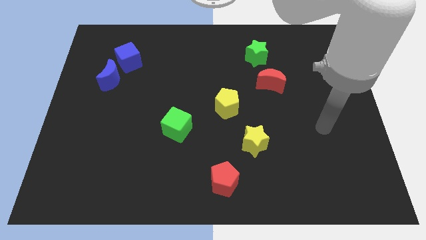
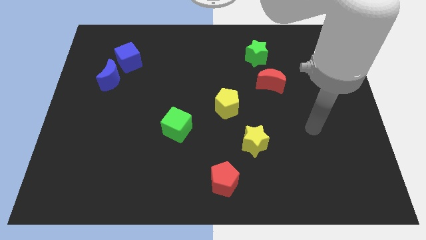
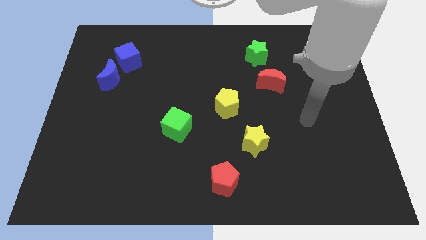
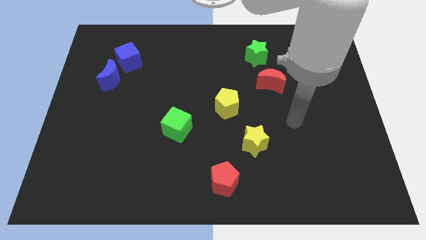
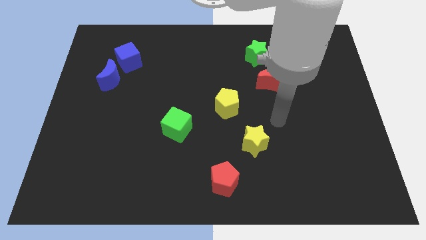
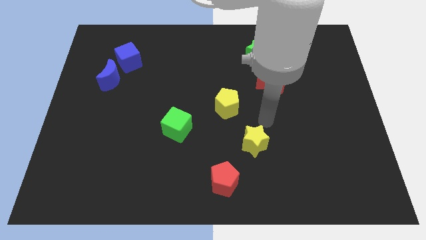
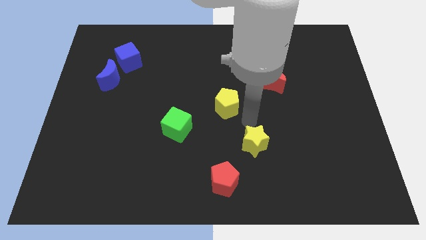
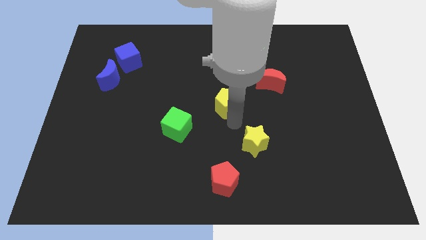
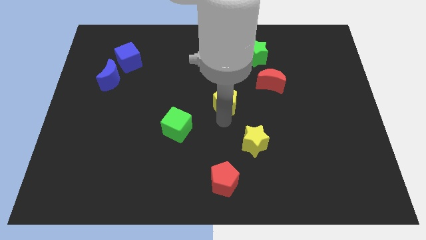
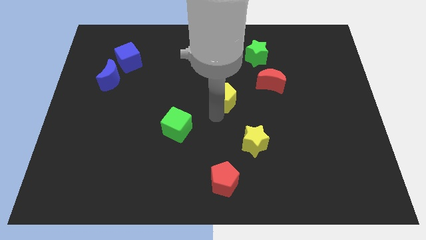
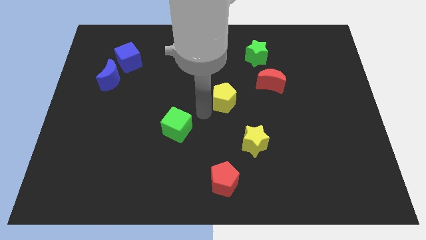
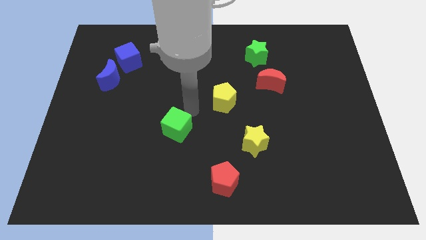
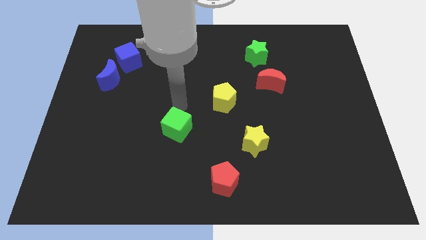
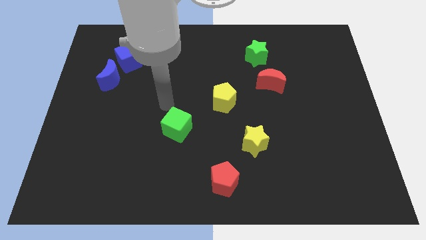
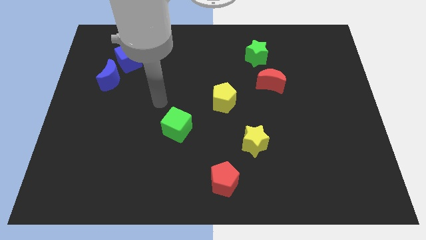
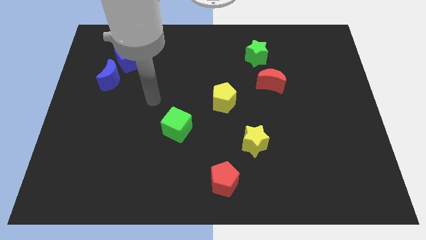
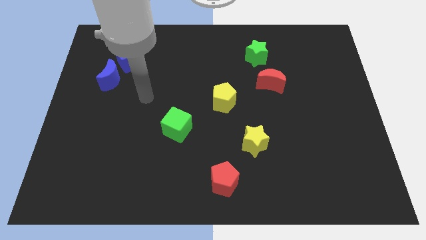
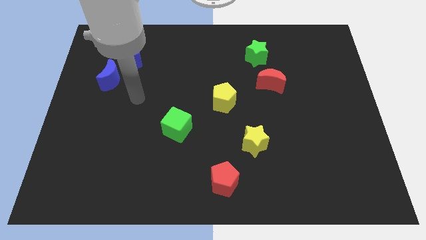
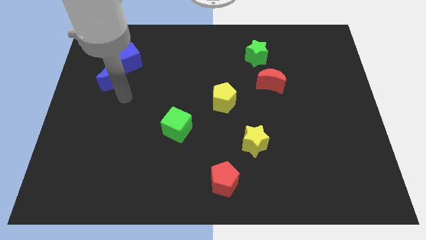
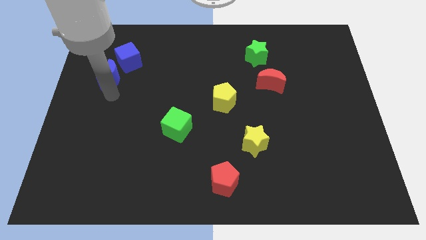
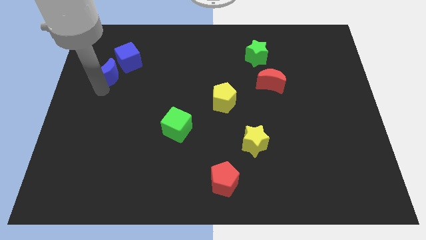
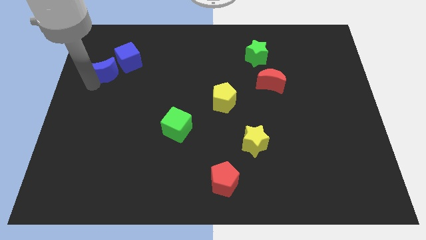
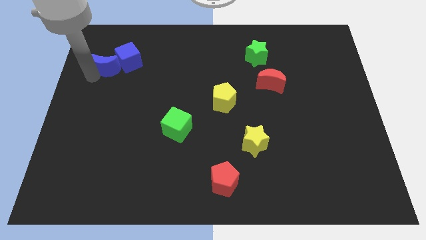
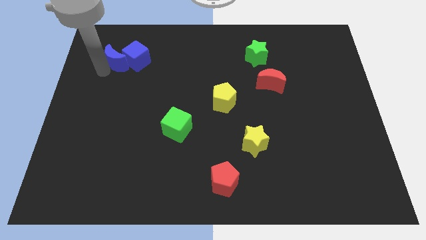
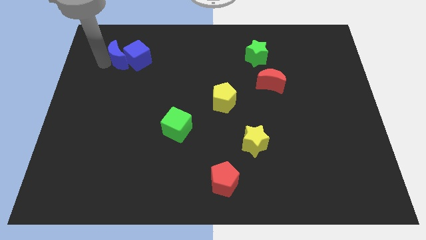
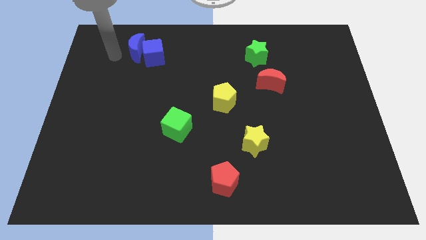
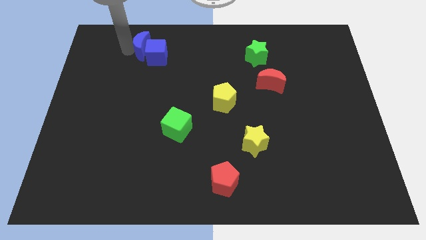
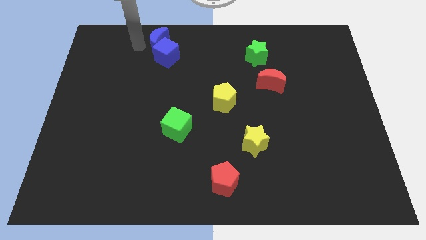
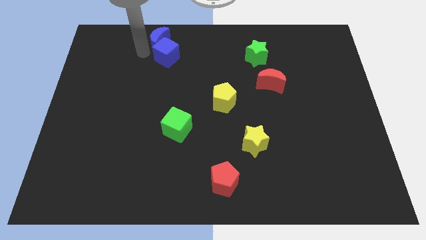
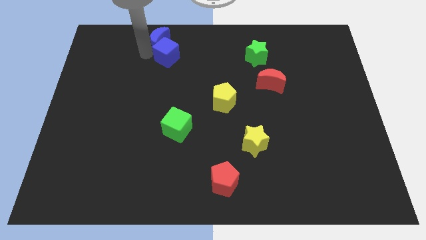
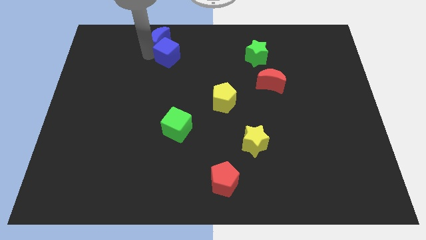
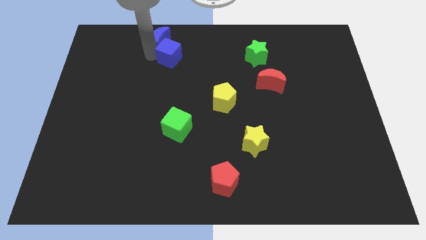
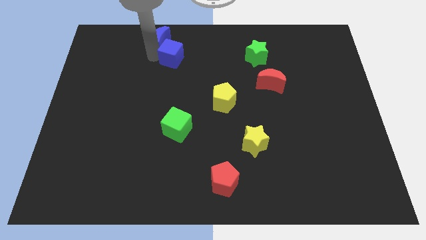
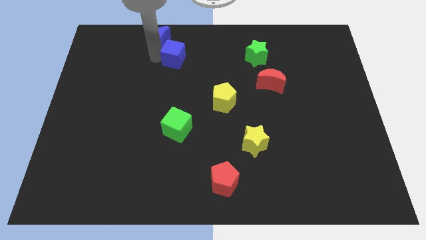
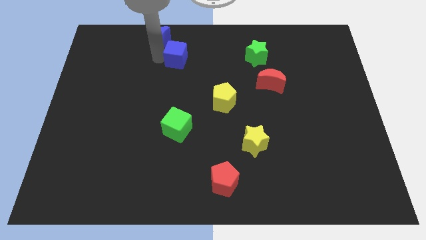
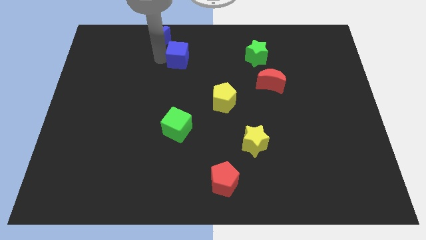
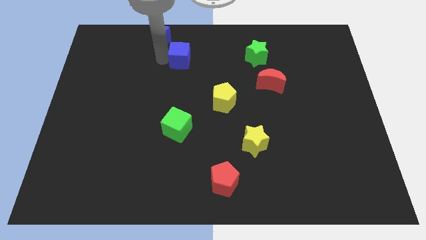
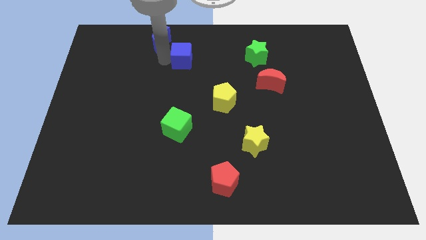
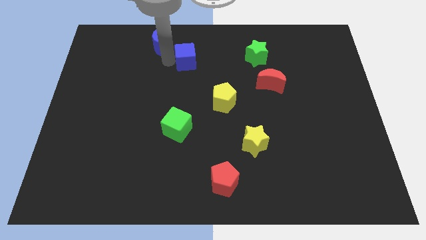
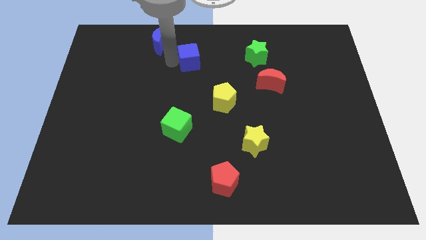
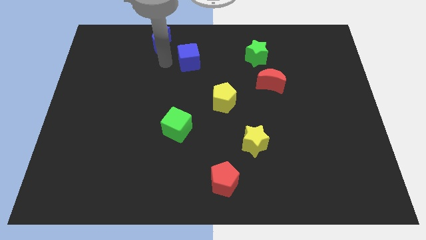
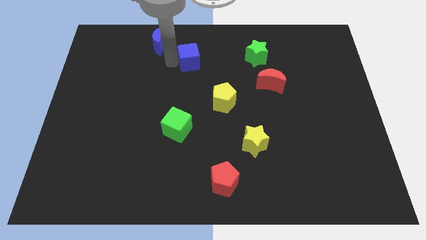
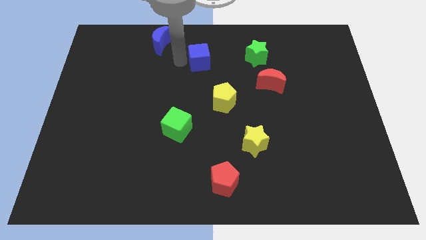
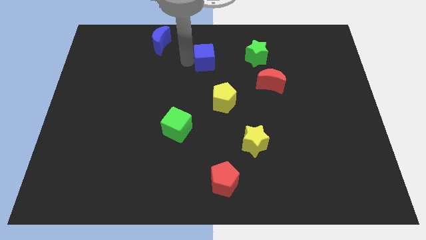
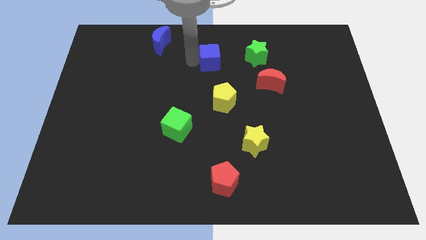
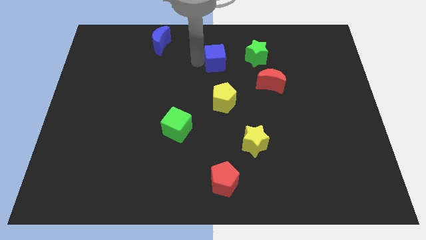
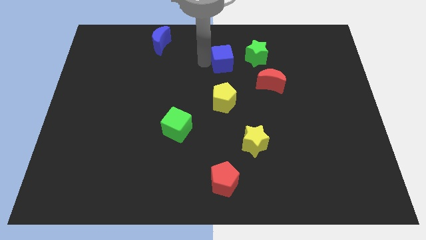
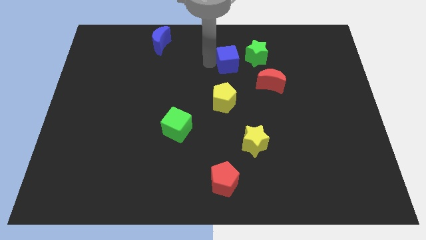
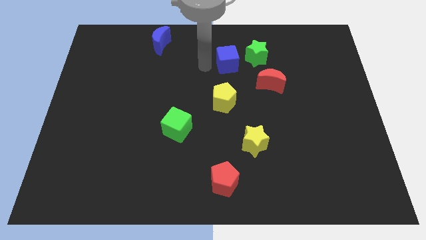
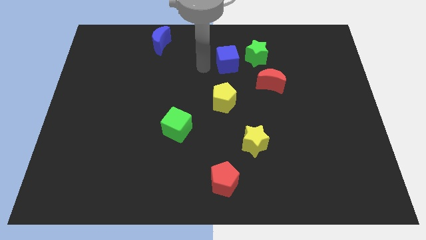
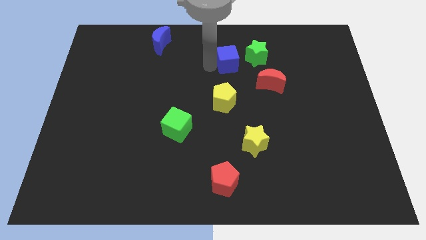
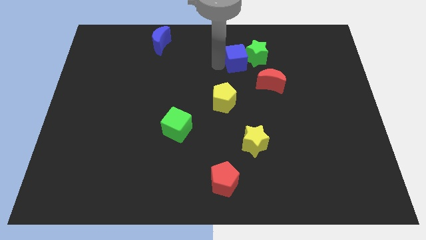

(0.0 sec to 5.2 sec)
push the blue cube to the green star

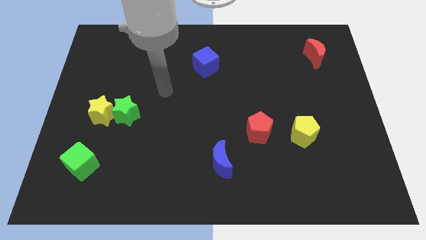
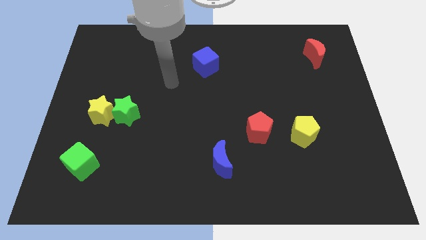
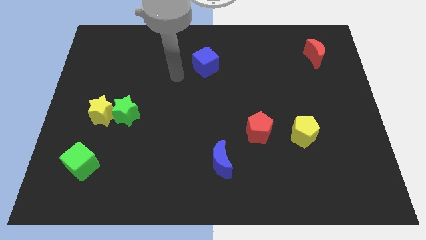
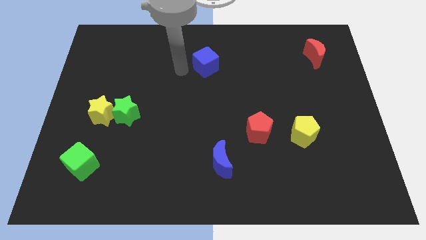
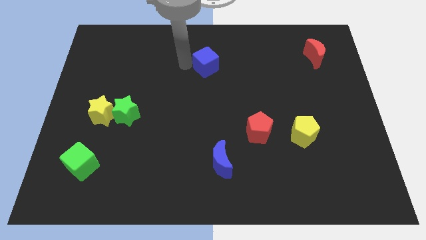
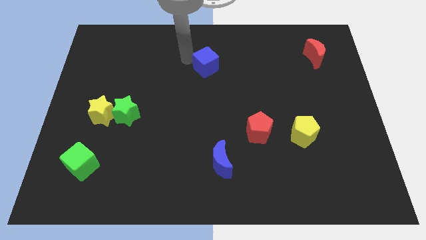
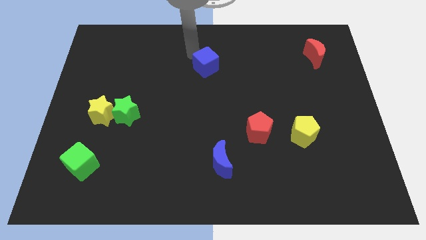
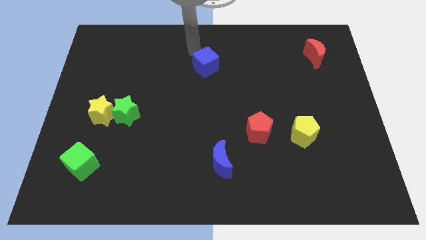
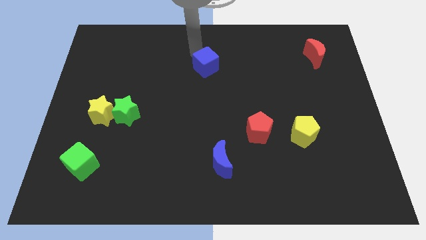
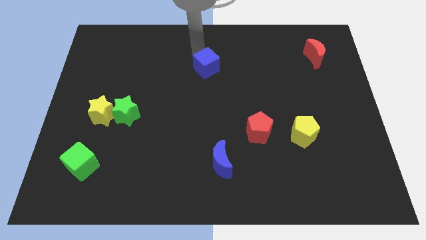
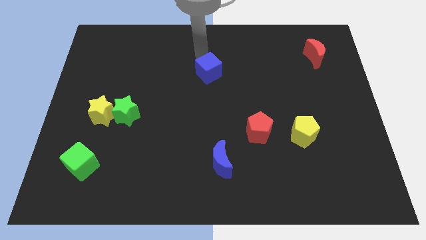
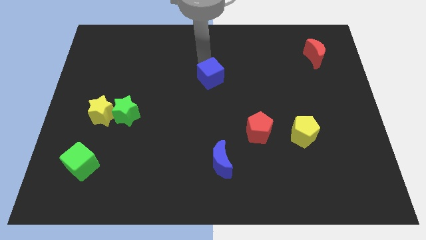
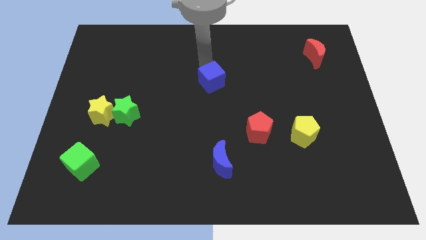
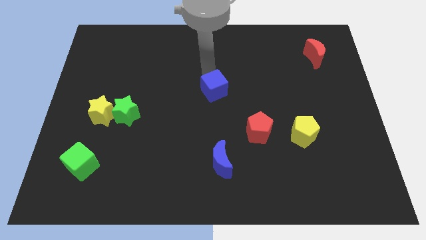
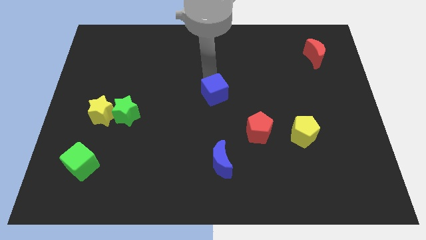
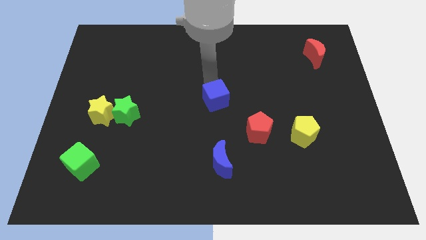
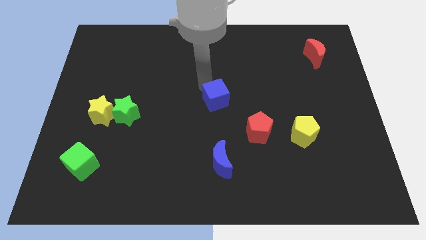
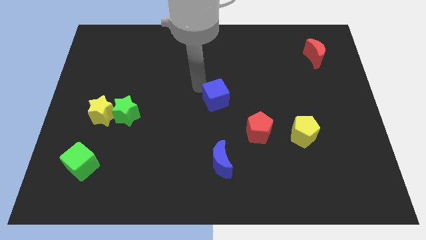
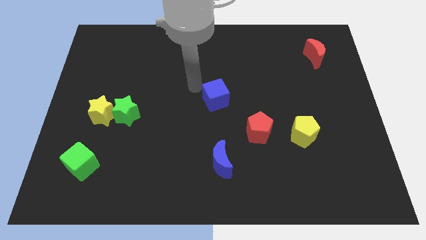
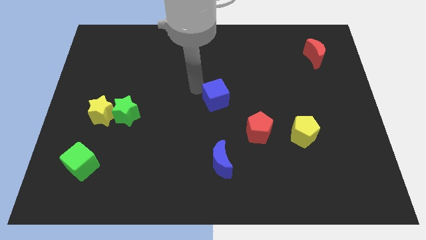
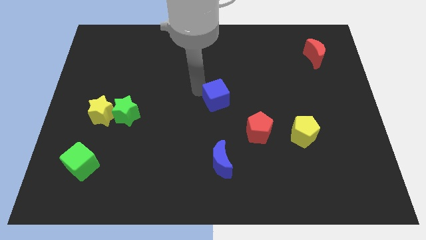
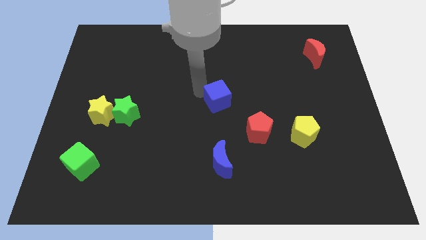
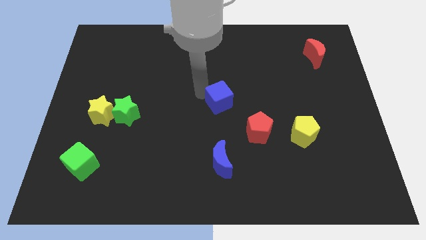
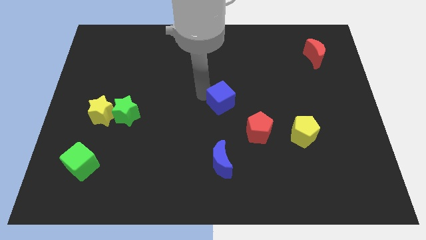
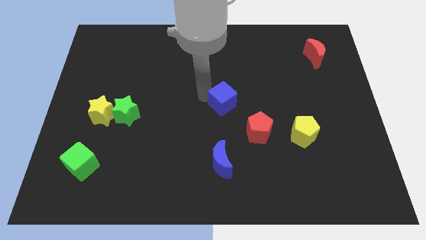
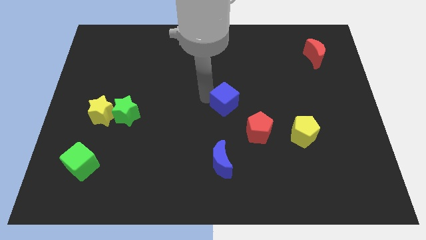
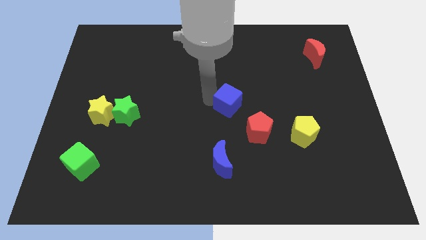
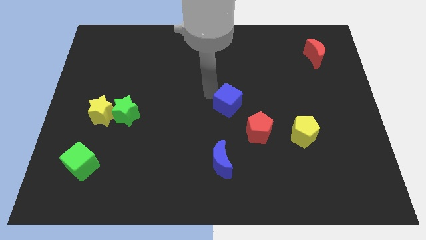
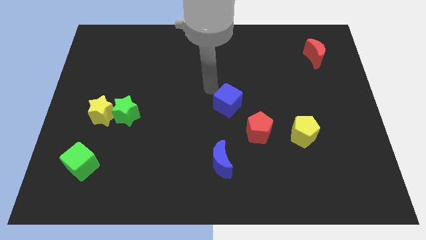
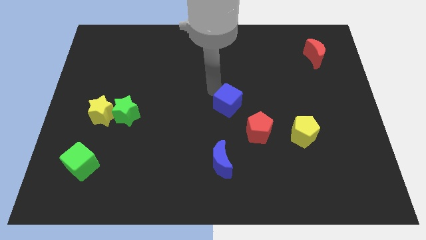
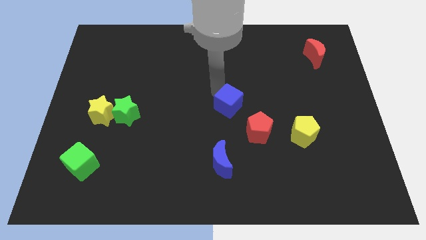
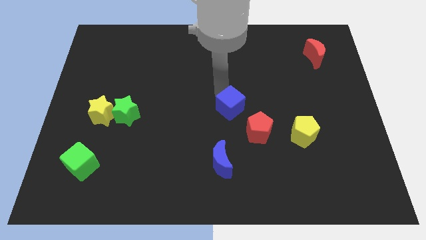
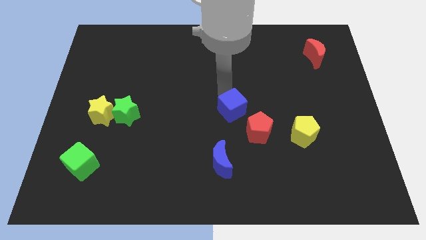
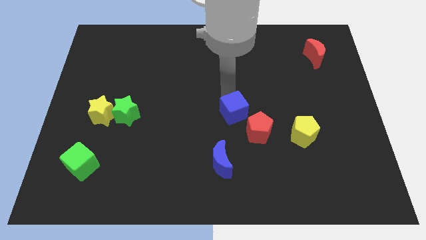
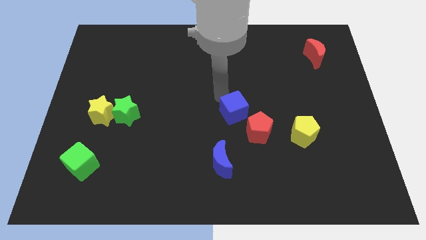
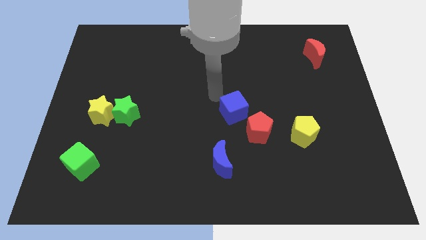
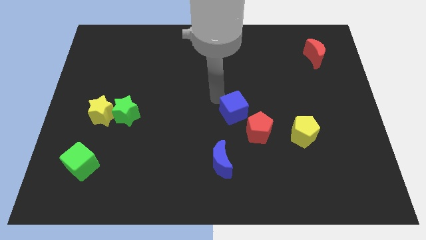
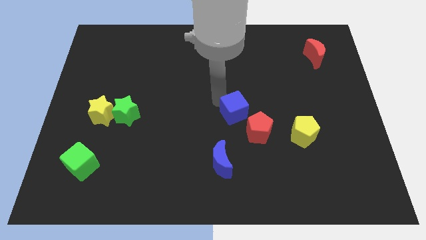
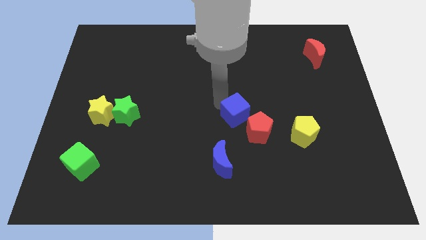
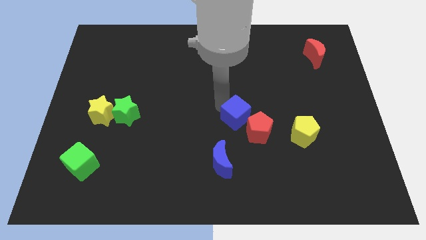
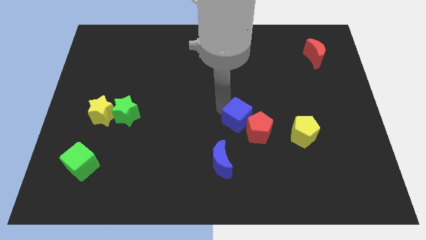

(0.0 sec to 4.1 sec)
put the blue cube close to the red pentagon
